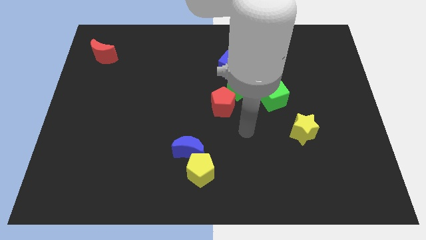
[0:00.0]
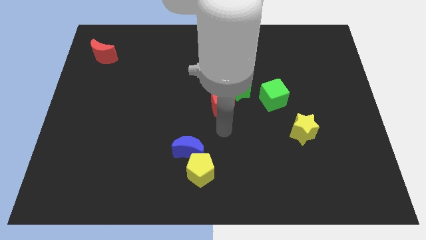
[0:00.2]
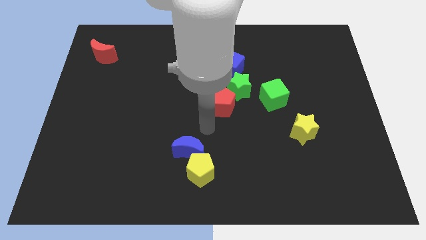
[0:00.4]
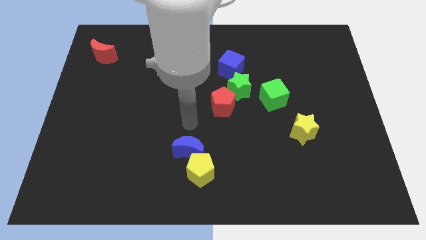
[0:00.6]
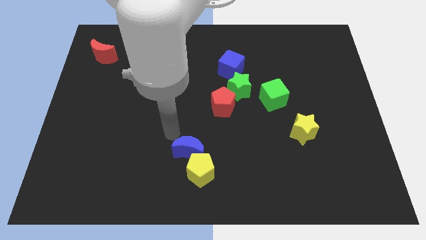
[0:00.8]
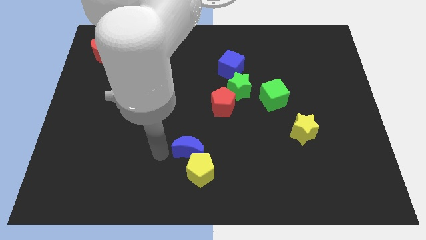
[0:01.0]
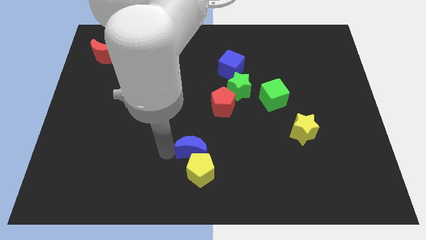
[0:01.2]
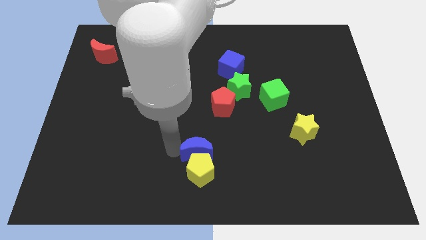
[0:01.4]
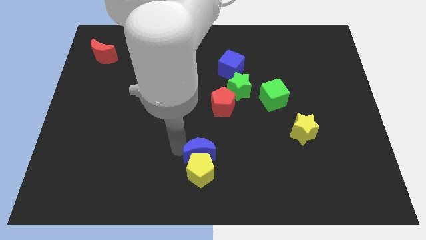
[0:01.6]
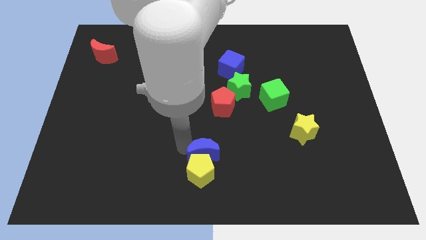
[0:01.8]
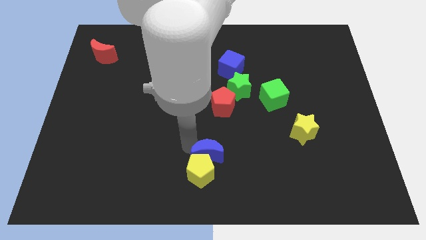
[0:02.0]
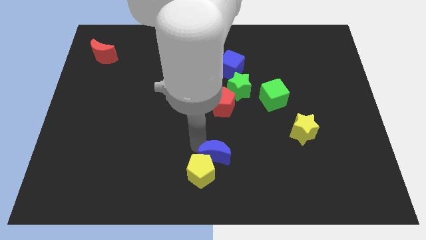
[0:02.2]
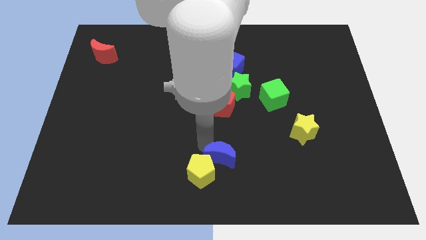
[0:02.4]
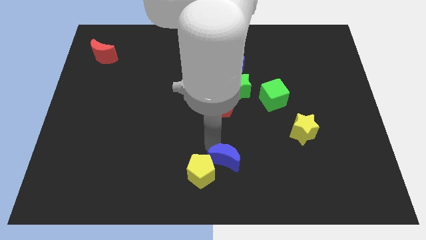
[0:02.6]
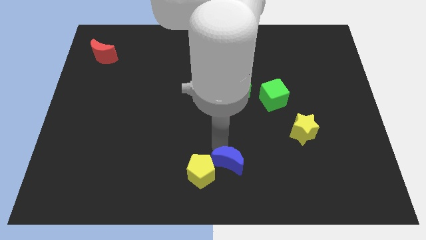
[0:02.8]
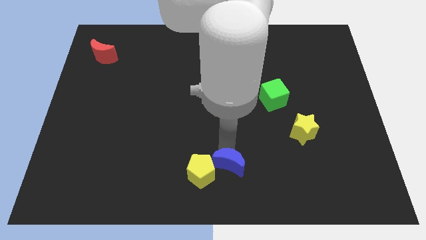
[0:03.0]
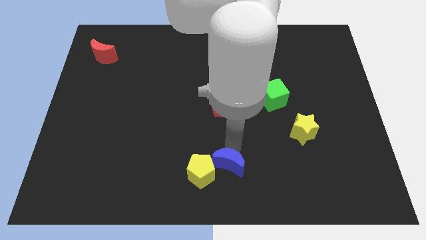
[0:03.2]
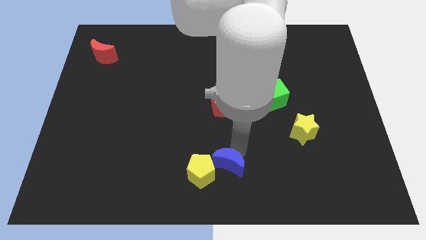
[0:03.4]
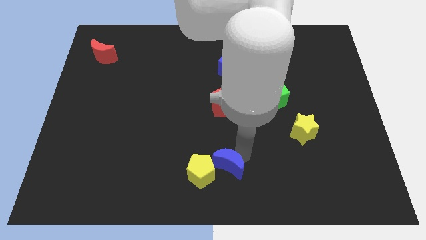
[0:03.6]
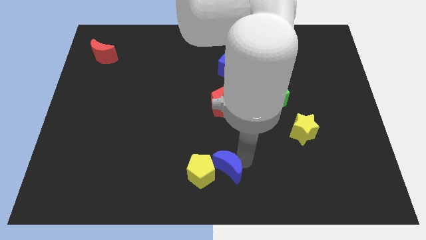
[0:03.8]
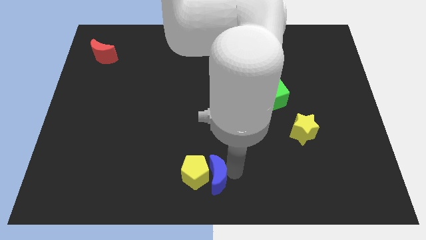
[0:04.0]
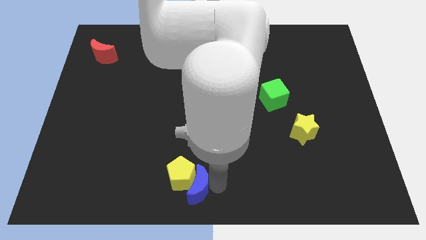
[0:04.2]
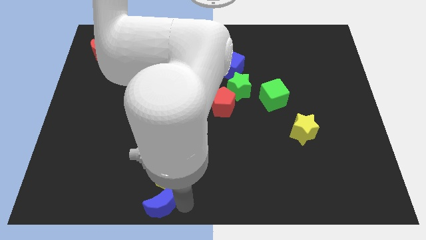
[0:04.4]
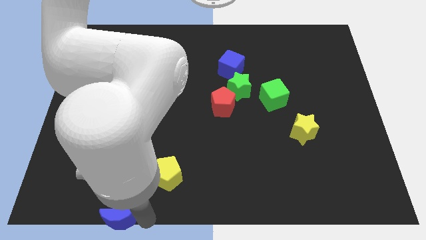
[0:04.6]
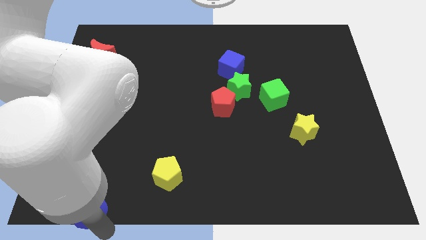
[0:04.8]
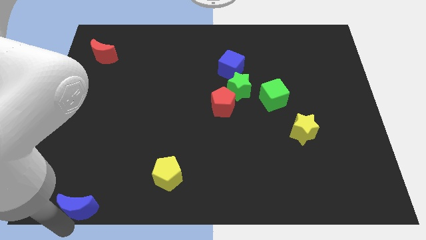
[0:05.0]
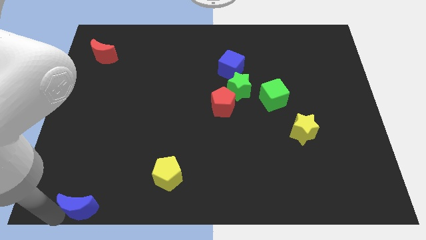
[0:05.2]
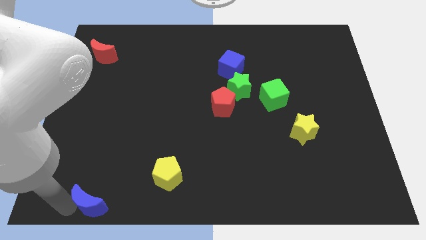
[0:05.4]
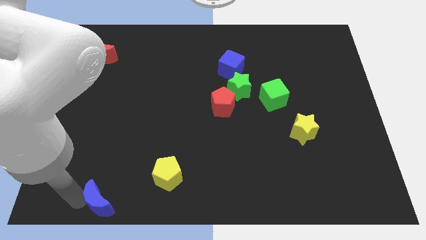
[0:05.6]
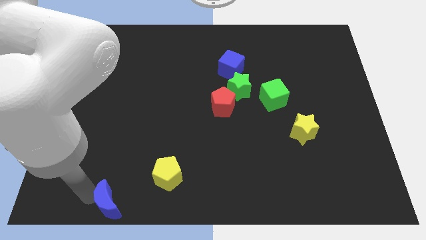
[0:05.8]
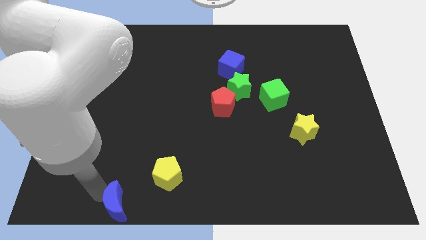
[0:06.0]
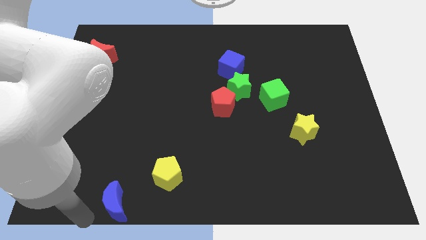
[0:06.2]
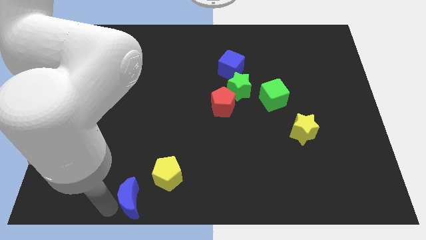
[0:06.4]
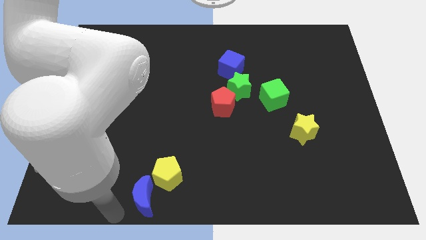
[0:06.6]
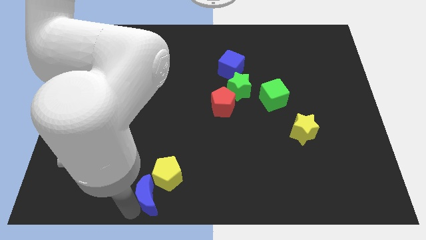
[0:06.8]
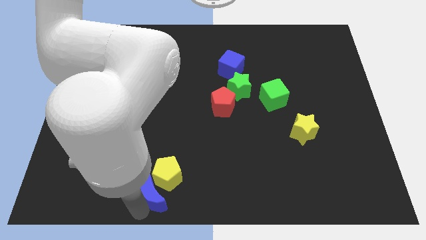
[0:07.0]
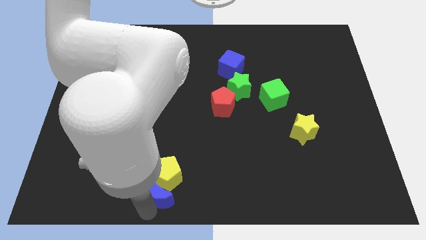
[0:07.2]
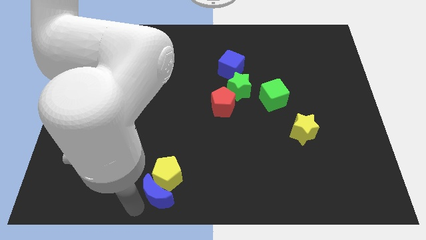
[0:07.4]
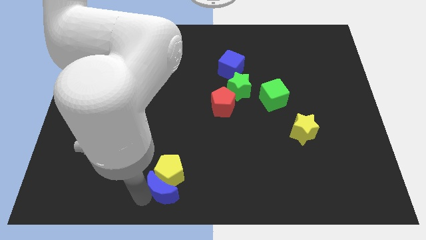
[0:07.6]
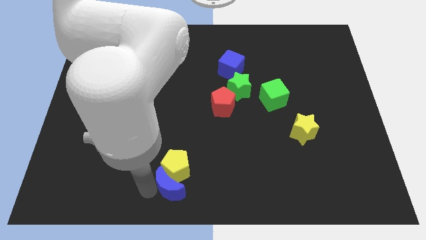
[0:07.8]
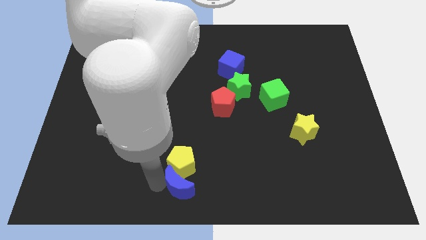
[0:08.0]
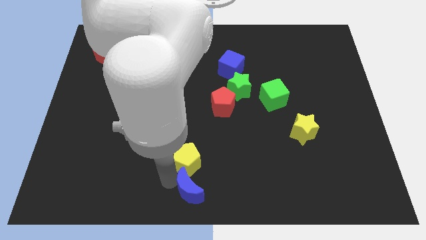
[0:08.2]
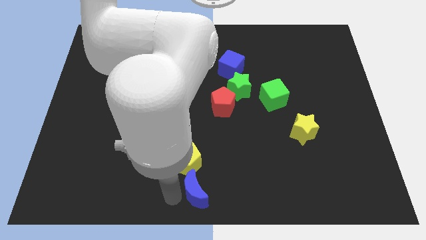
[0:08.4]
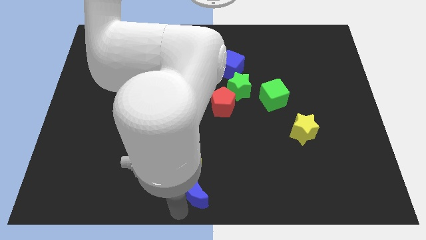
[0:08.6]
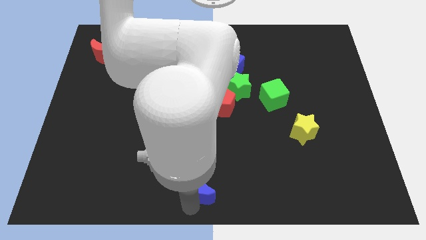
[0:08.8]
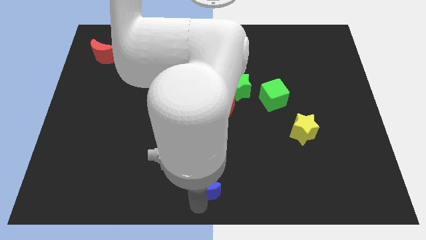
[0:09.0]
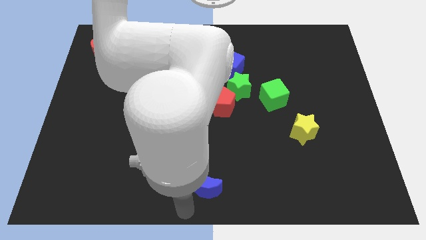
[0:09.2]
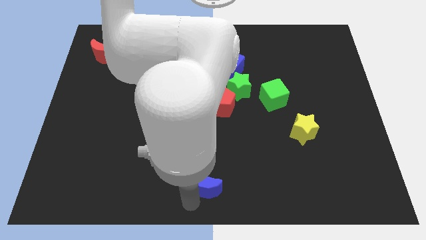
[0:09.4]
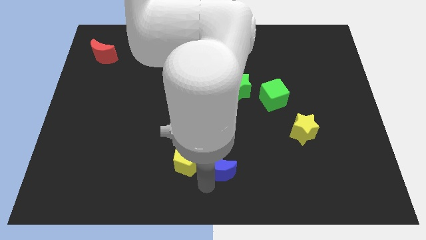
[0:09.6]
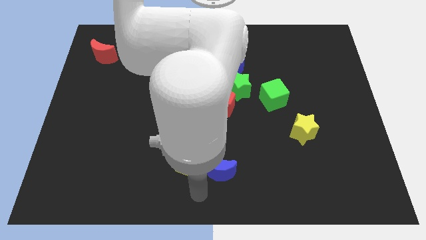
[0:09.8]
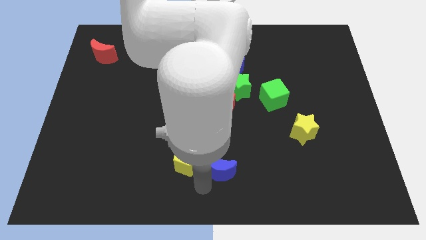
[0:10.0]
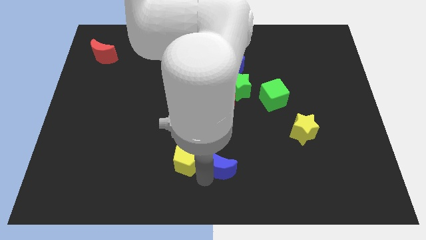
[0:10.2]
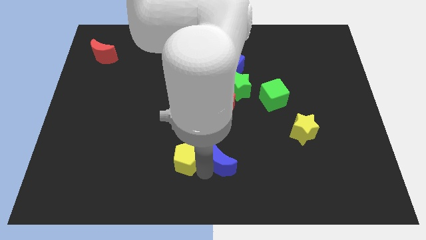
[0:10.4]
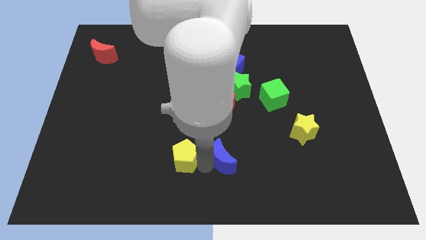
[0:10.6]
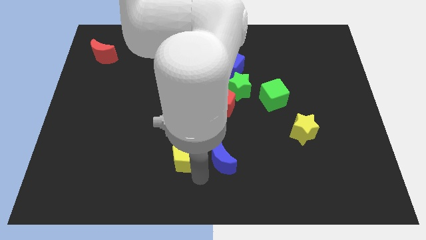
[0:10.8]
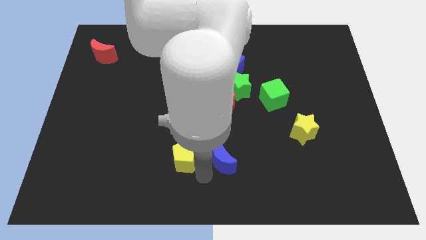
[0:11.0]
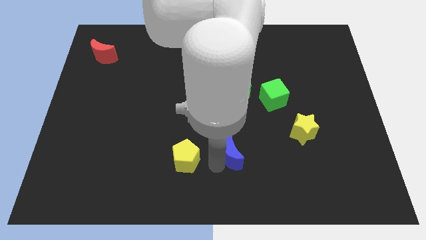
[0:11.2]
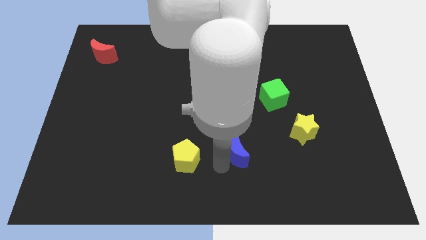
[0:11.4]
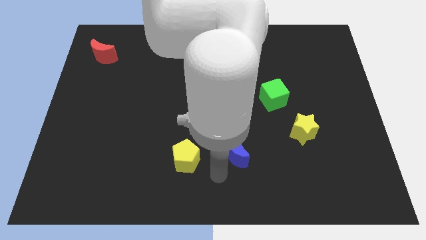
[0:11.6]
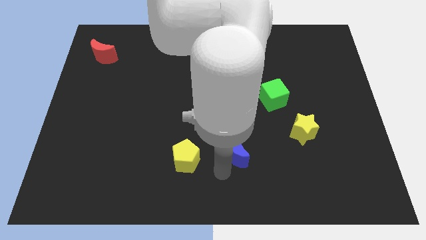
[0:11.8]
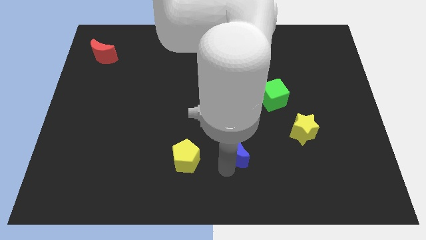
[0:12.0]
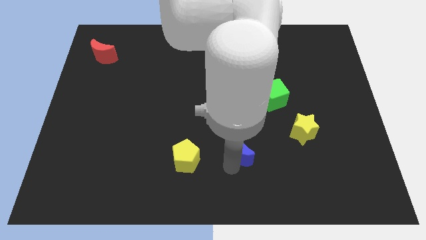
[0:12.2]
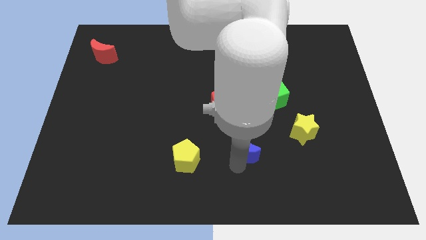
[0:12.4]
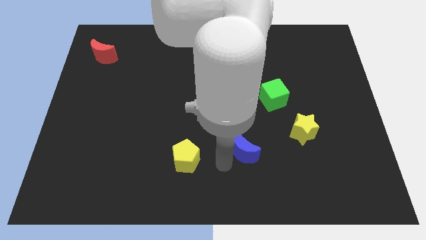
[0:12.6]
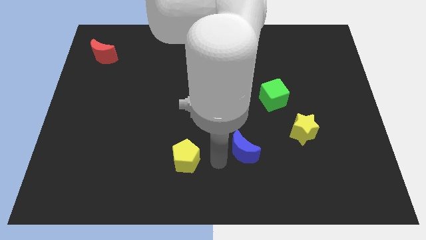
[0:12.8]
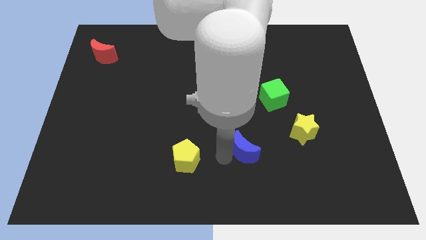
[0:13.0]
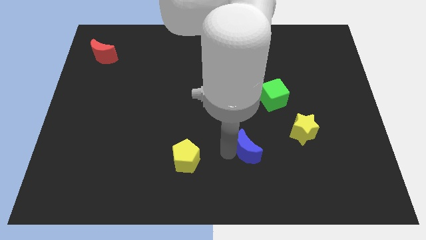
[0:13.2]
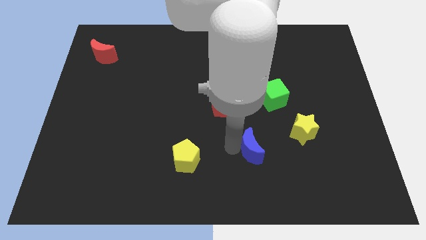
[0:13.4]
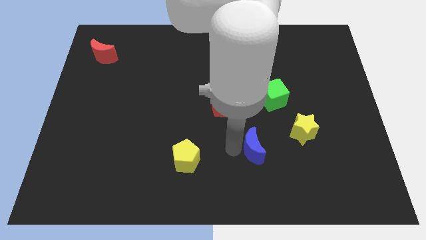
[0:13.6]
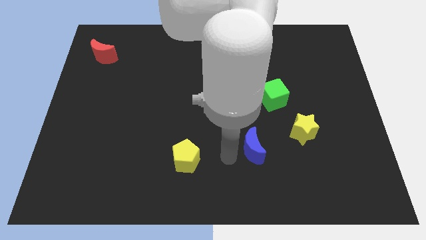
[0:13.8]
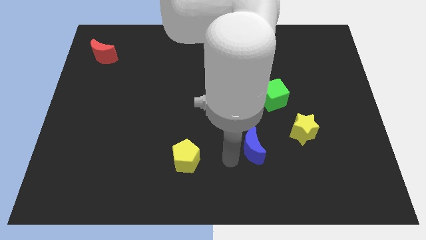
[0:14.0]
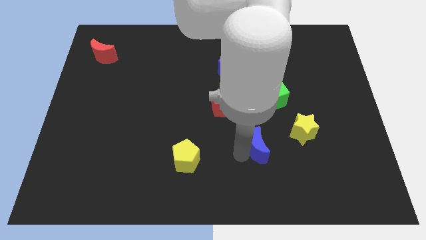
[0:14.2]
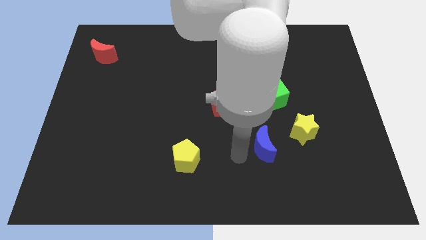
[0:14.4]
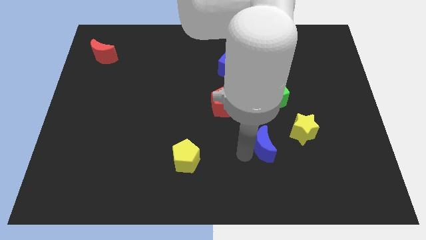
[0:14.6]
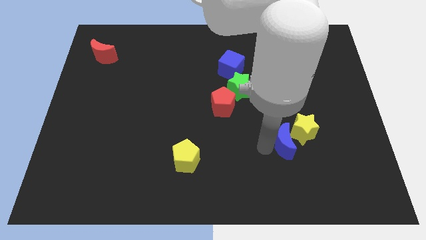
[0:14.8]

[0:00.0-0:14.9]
move the blue moon next to the yellow star
